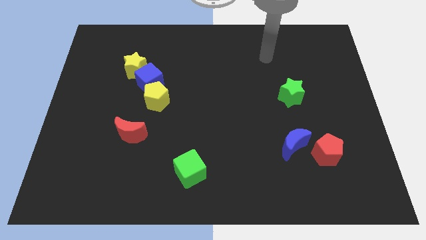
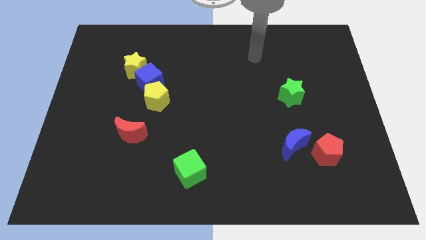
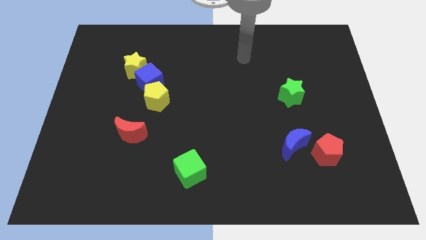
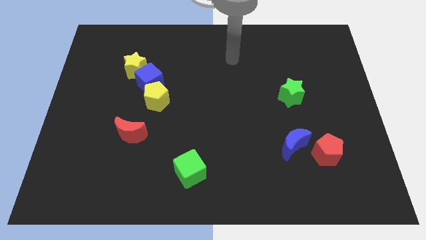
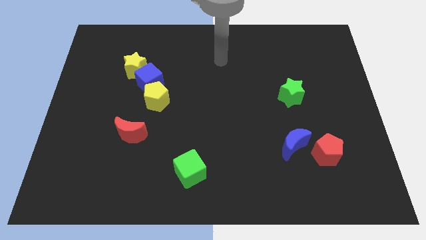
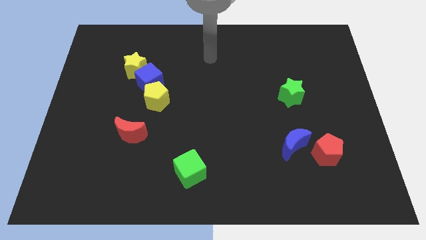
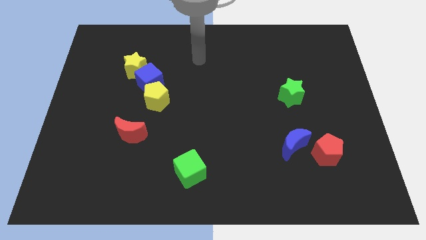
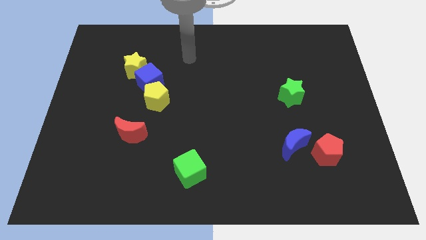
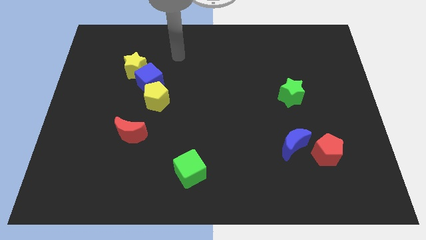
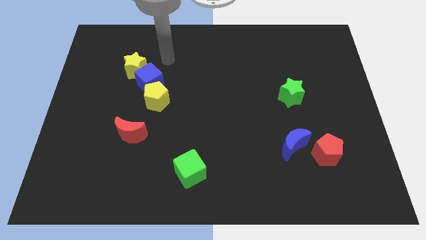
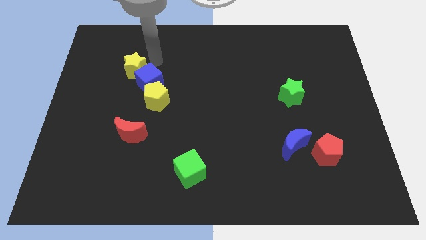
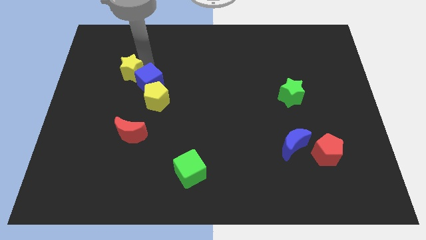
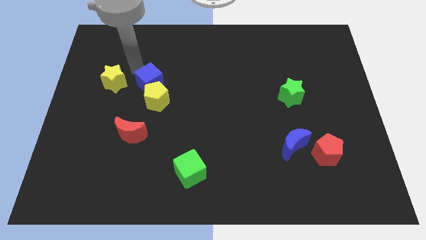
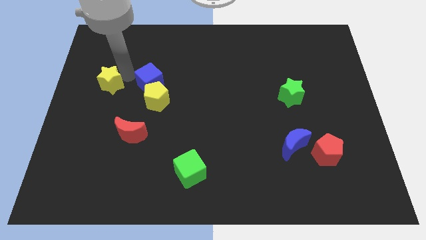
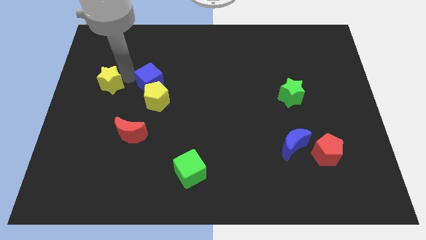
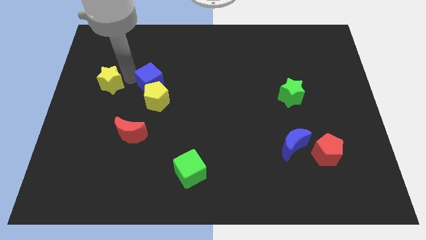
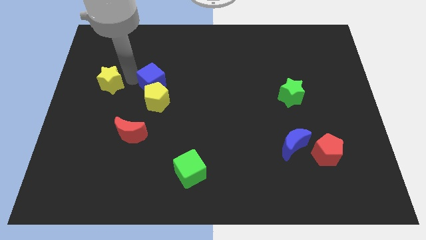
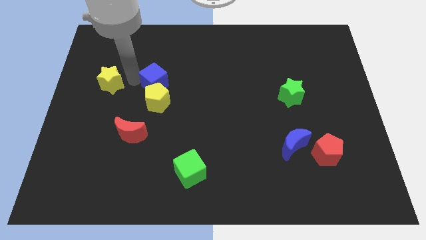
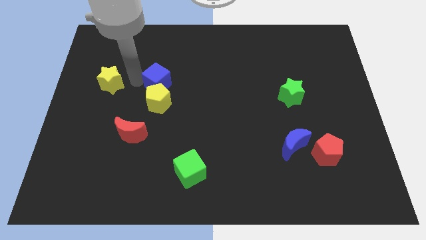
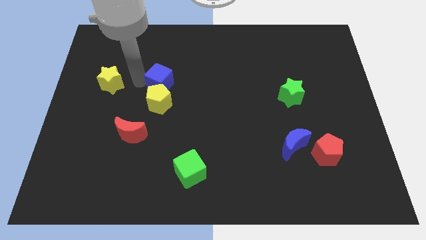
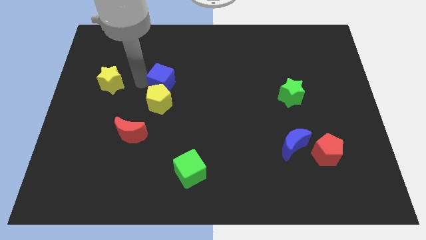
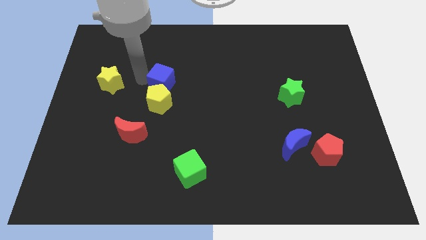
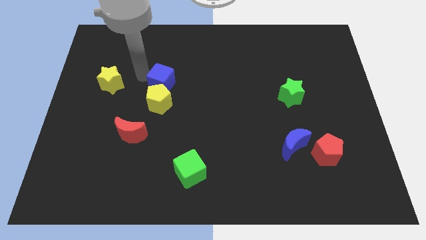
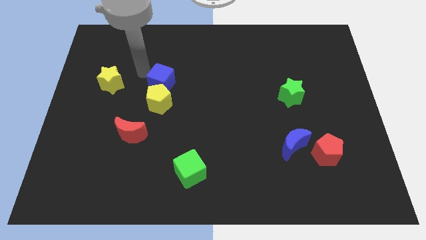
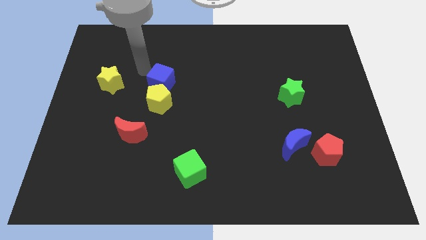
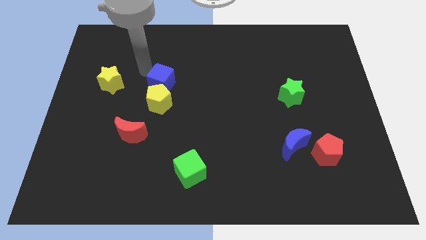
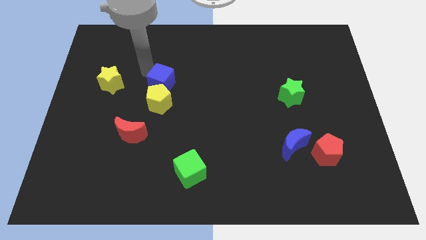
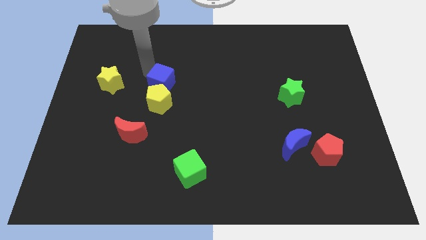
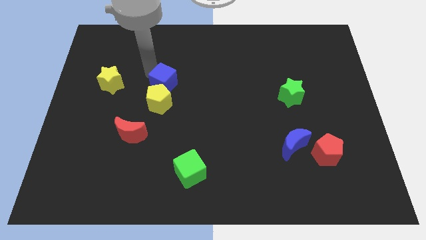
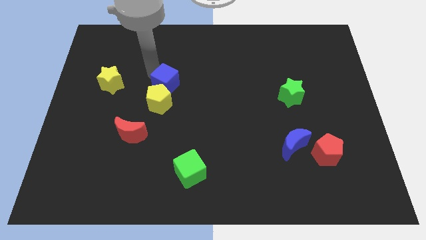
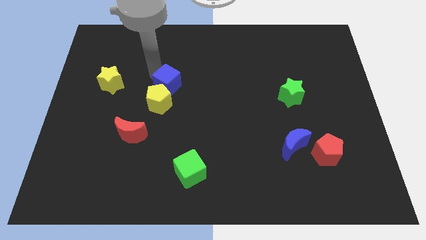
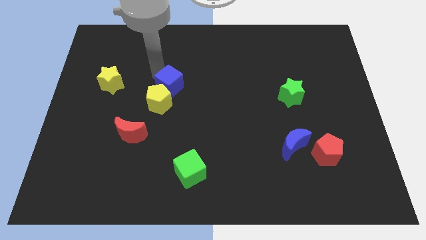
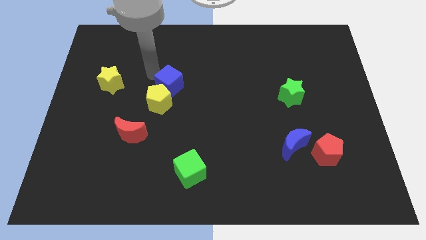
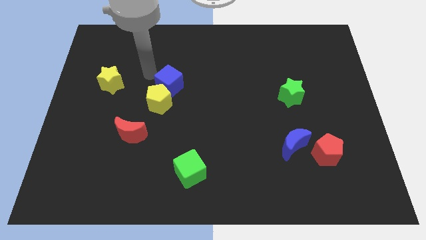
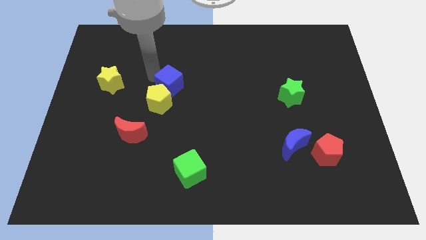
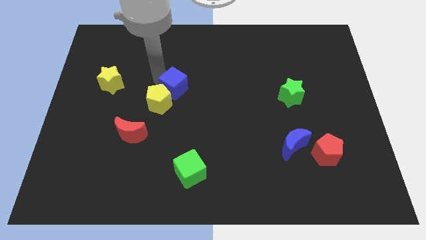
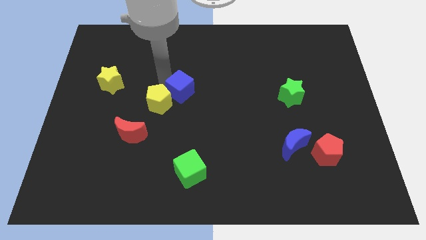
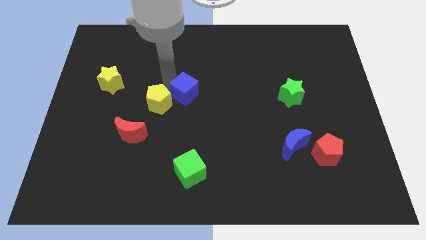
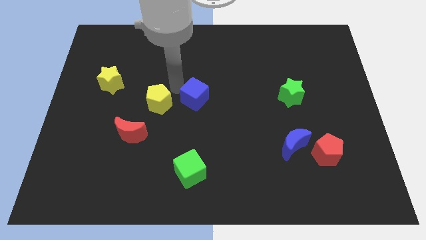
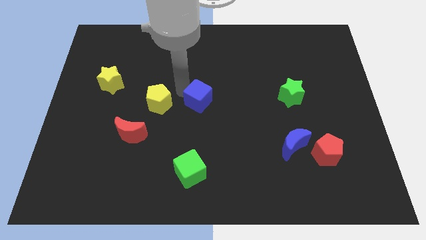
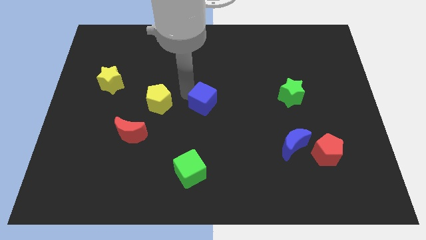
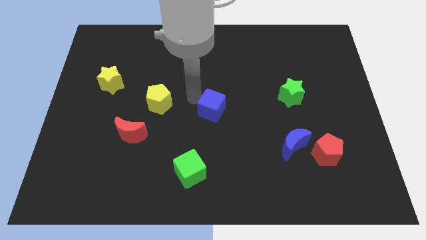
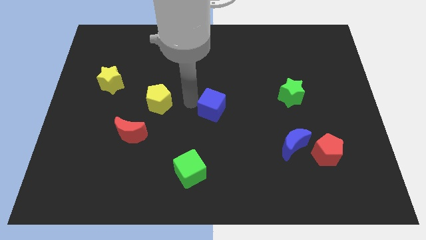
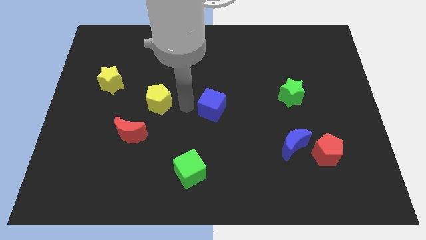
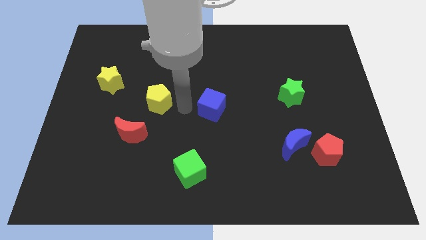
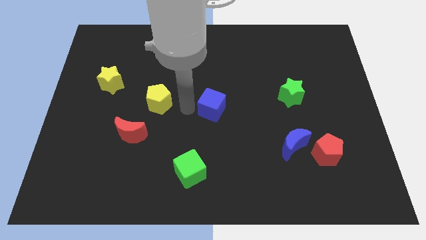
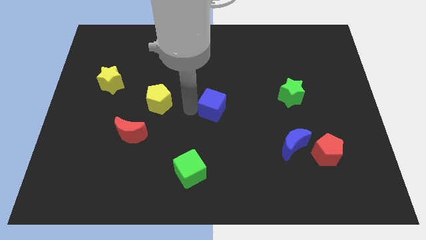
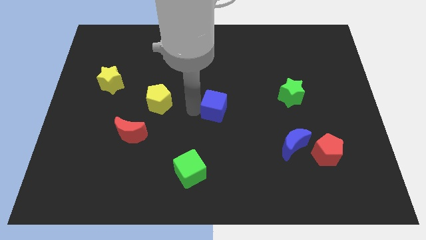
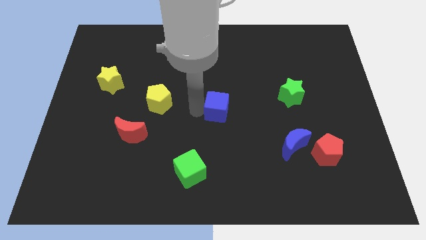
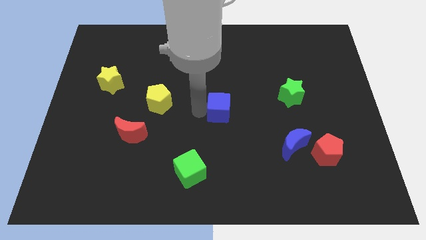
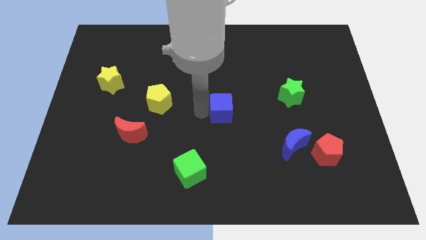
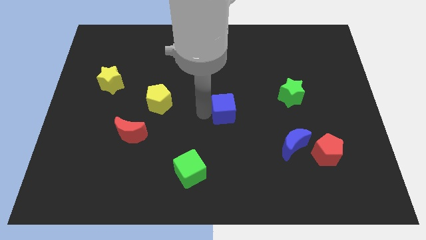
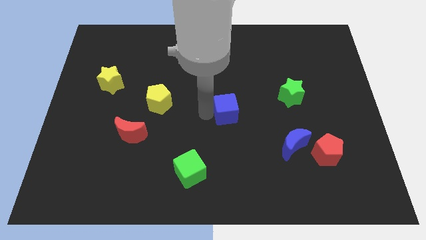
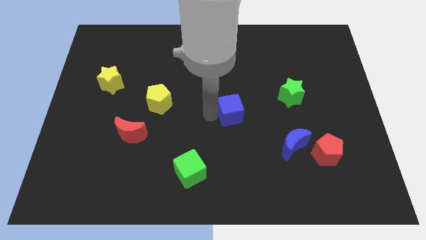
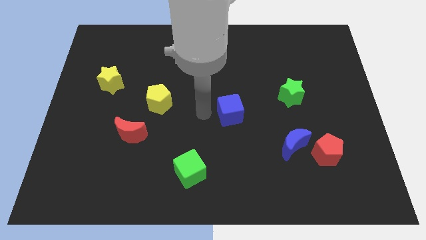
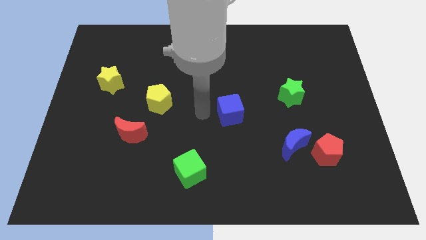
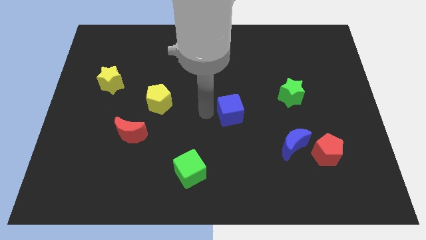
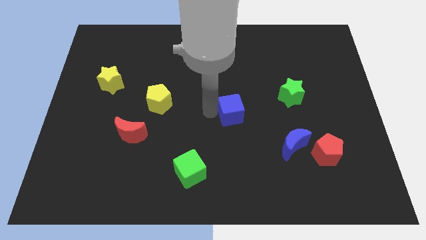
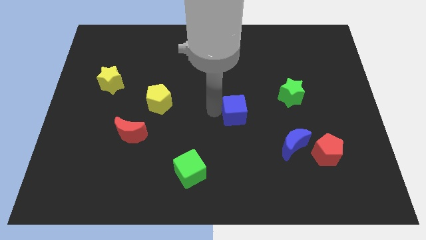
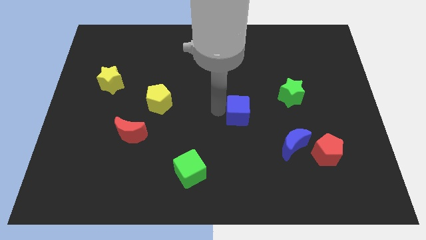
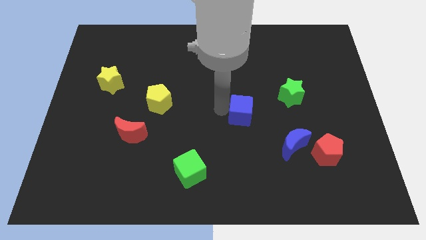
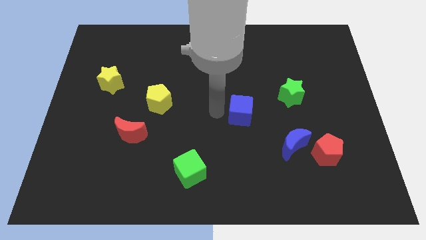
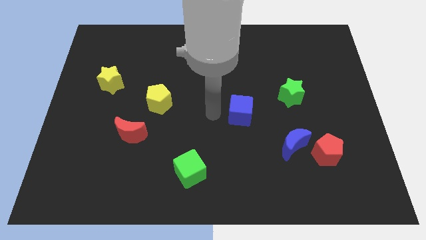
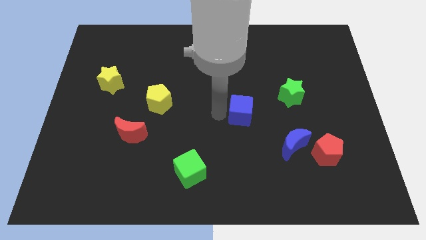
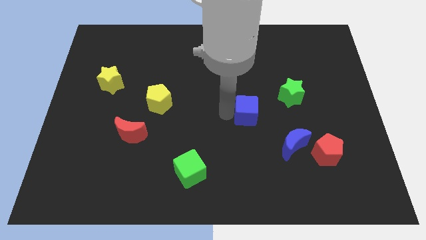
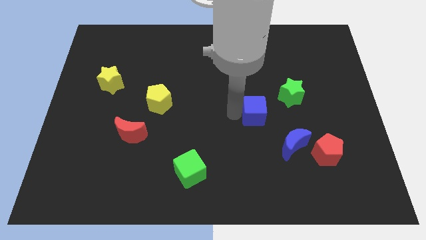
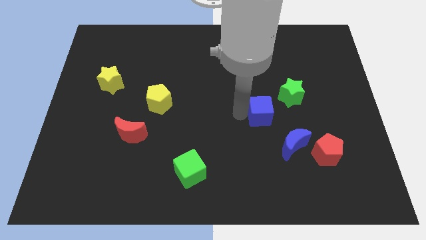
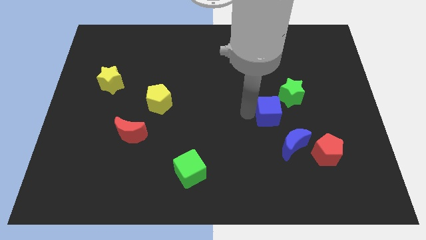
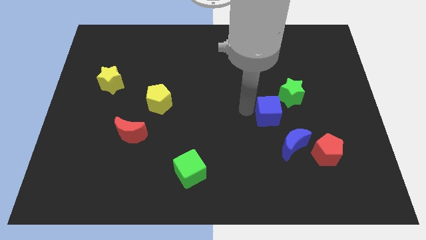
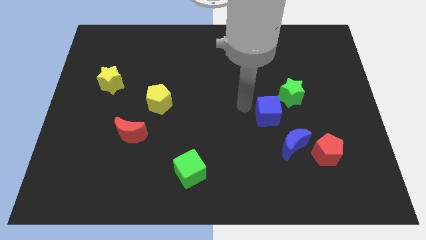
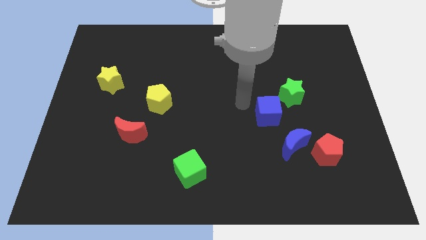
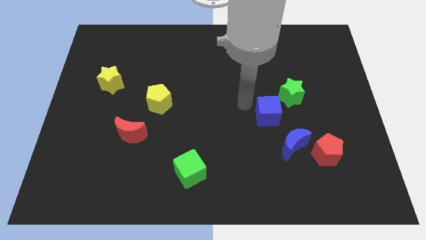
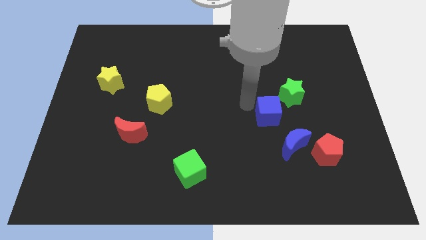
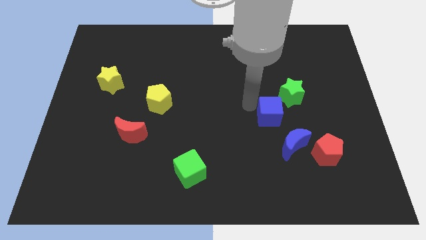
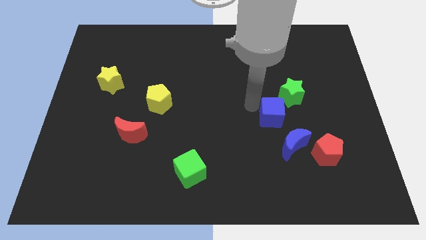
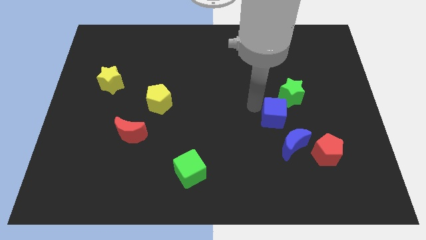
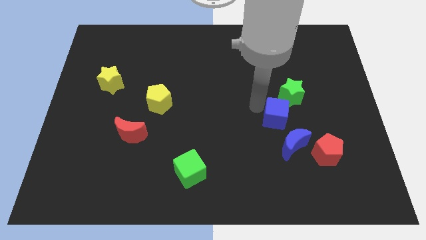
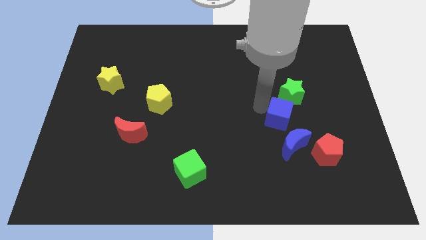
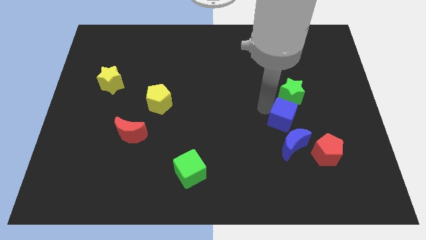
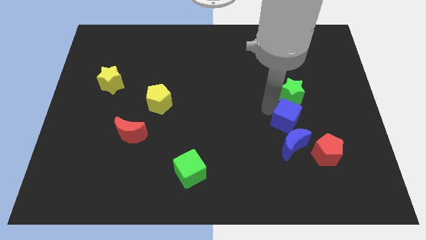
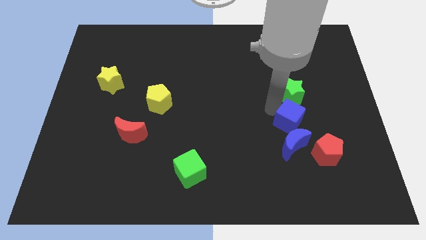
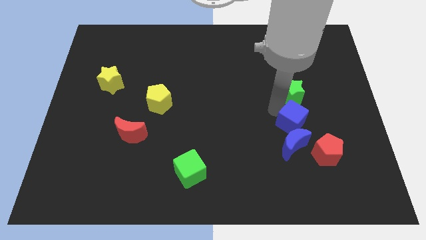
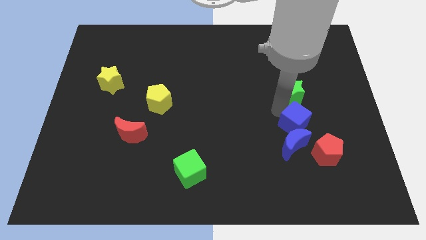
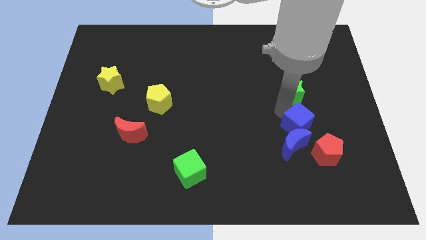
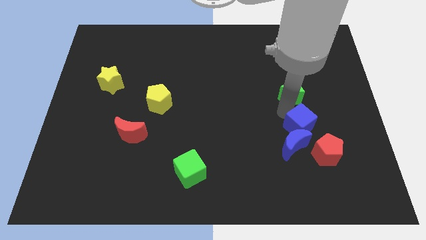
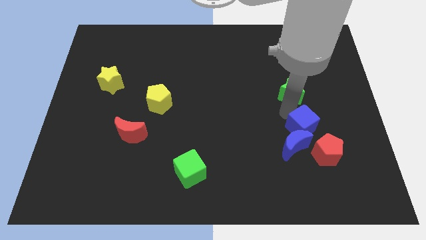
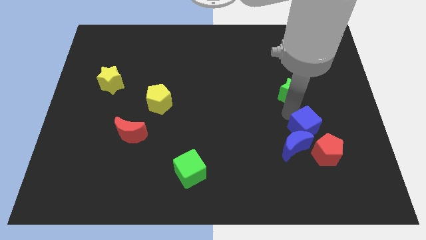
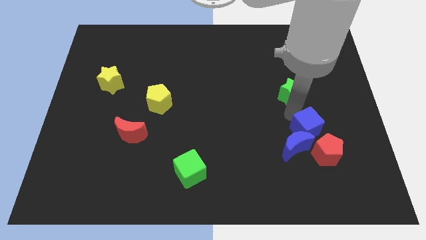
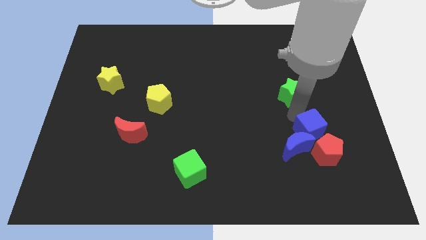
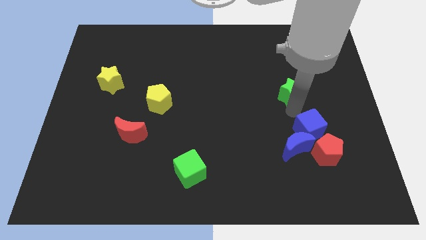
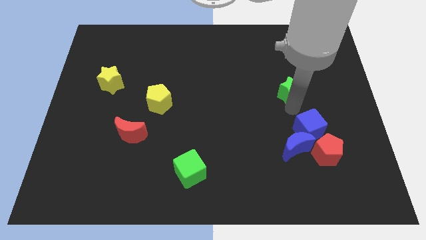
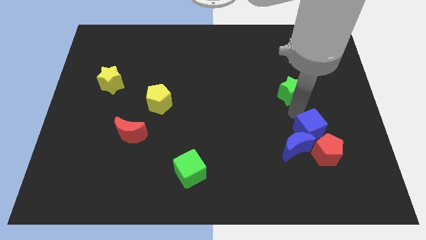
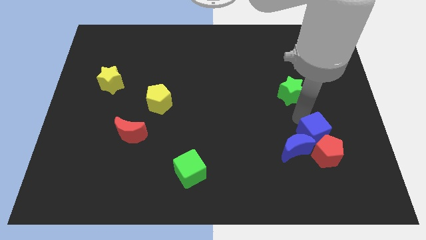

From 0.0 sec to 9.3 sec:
slide the blue cube to the red pentagon
